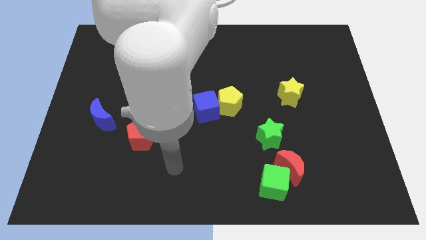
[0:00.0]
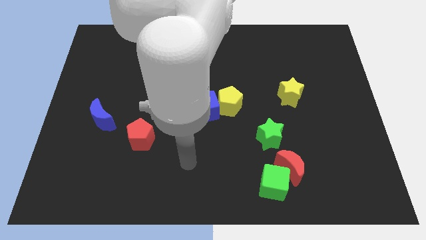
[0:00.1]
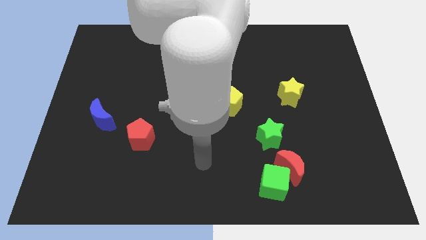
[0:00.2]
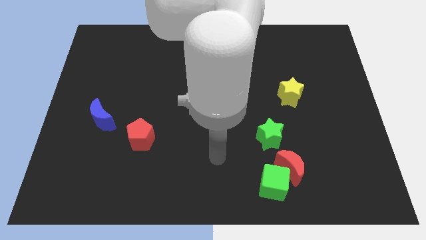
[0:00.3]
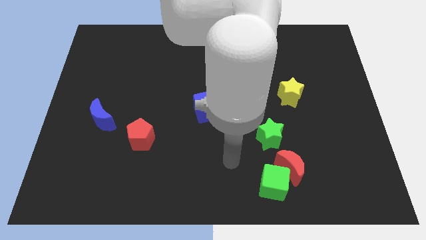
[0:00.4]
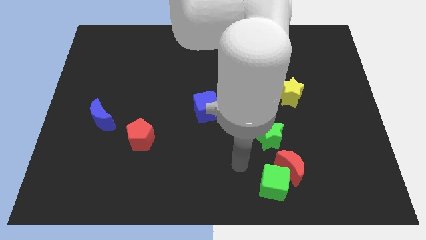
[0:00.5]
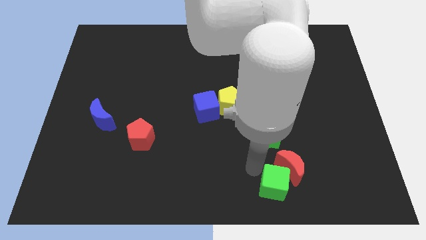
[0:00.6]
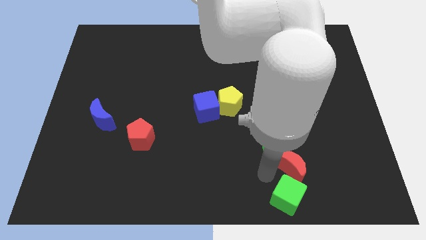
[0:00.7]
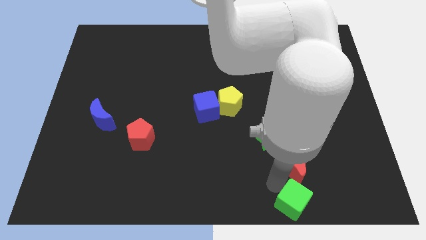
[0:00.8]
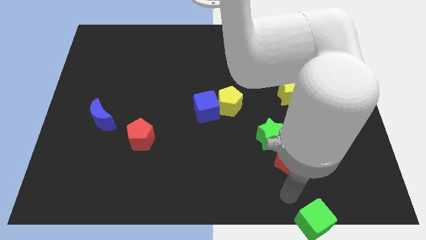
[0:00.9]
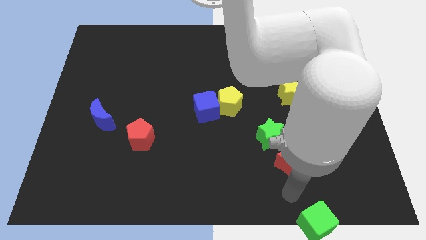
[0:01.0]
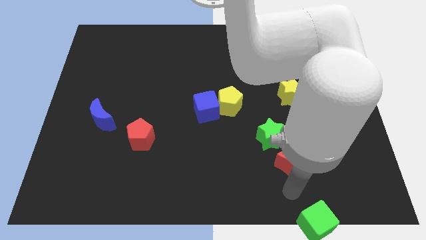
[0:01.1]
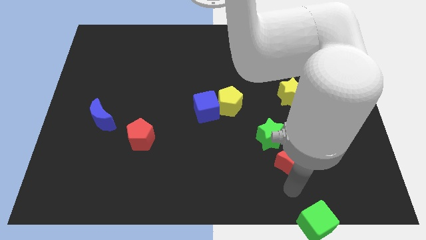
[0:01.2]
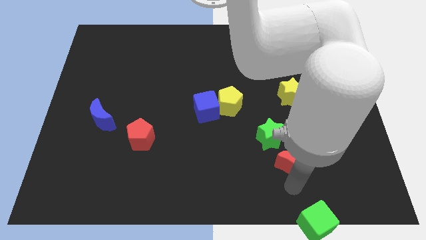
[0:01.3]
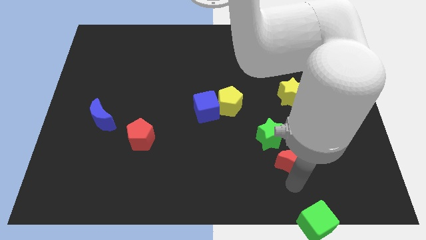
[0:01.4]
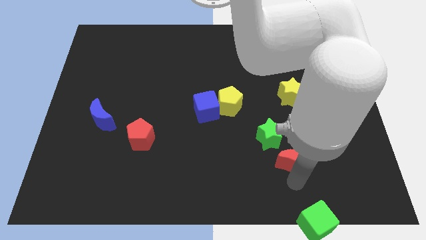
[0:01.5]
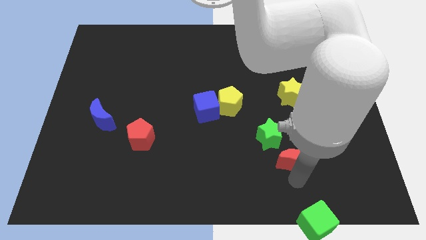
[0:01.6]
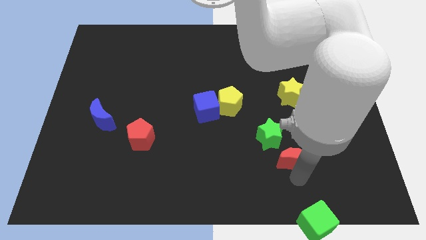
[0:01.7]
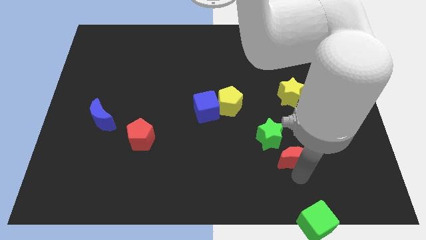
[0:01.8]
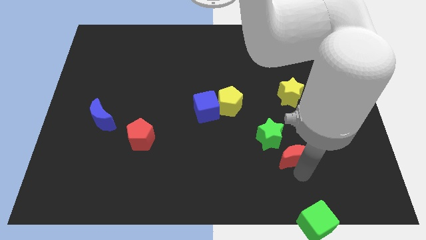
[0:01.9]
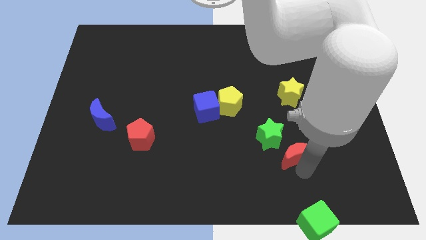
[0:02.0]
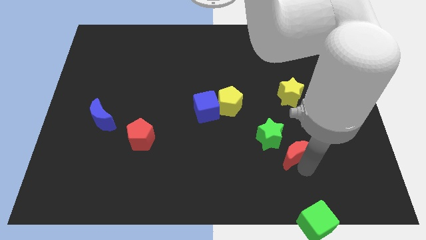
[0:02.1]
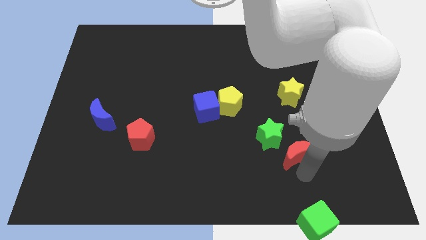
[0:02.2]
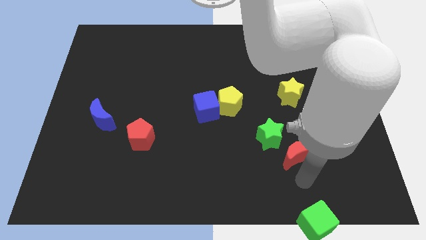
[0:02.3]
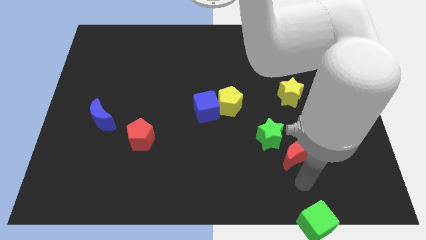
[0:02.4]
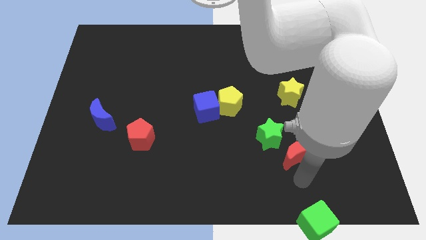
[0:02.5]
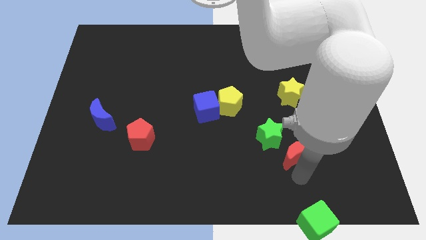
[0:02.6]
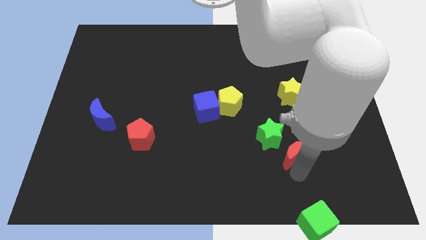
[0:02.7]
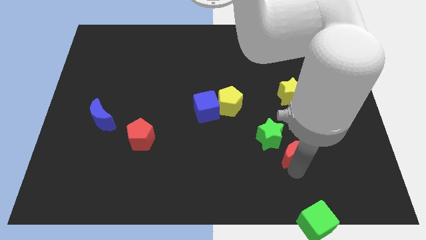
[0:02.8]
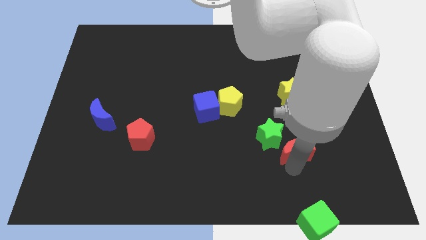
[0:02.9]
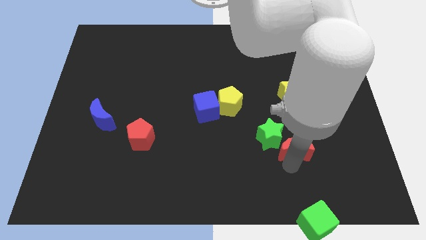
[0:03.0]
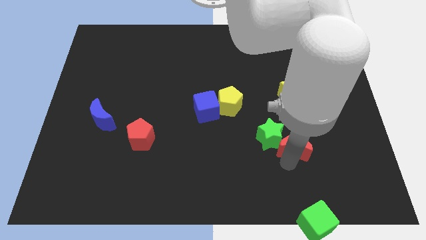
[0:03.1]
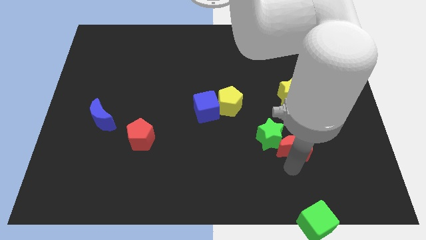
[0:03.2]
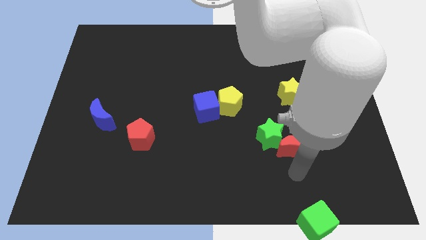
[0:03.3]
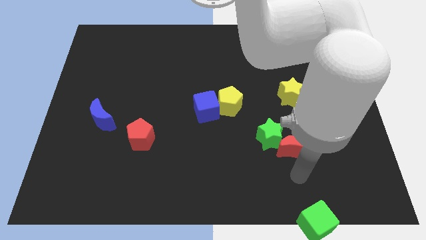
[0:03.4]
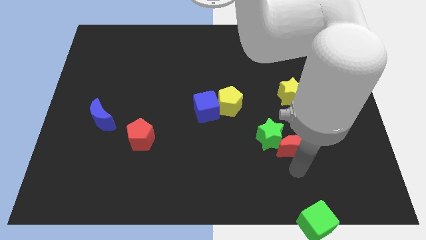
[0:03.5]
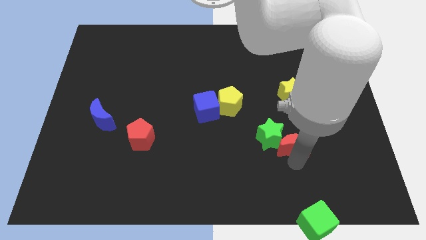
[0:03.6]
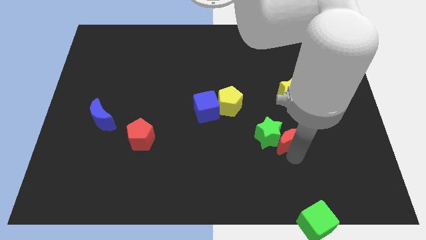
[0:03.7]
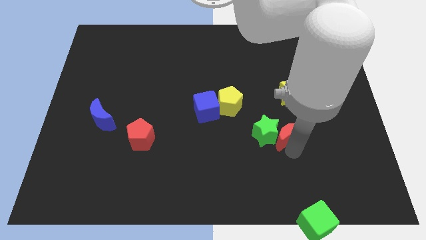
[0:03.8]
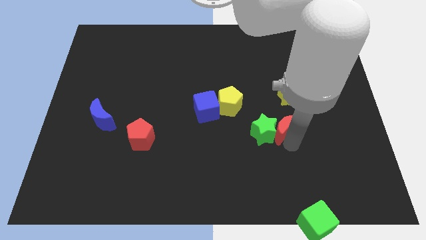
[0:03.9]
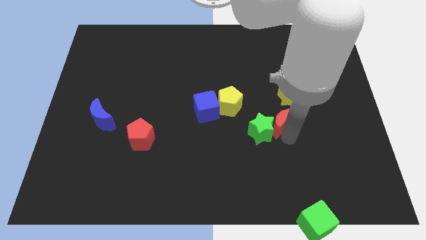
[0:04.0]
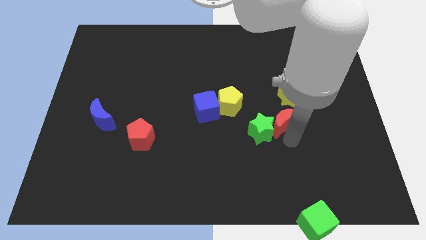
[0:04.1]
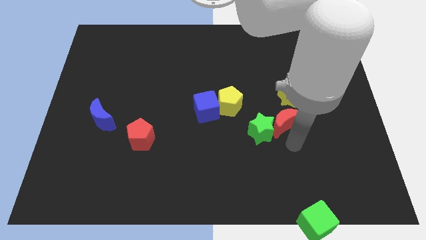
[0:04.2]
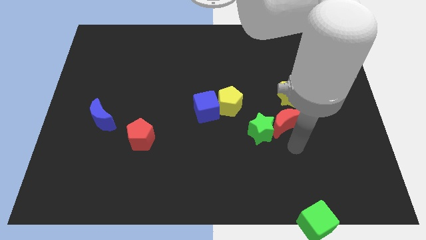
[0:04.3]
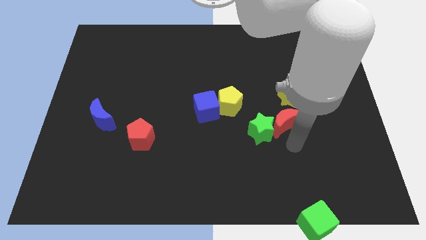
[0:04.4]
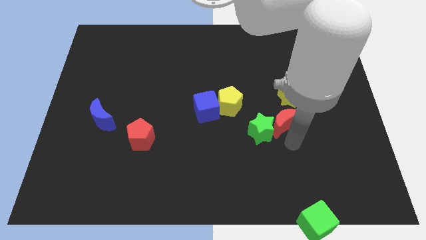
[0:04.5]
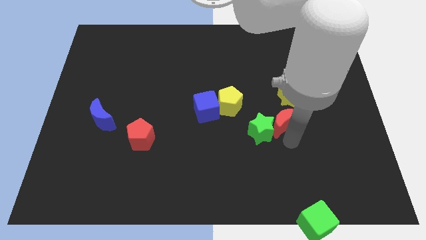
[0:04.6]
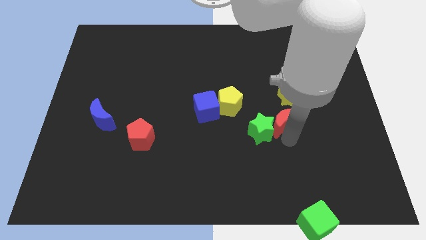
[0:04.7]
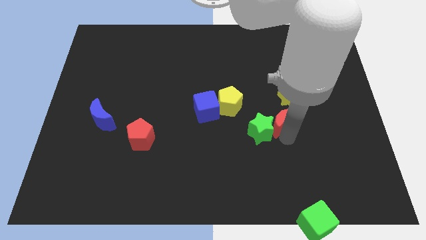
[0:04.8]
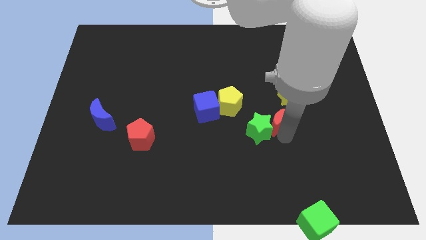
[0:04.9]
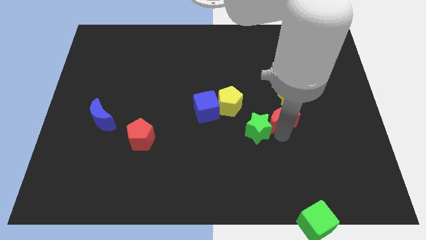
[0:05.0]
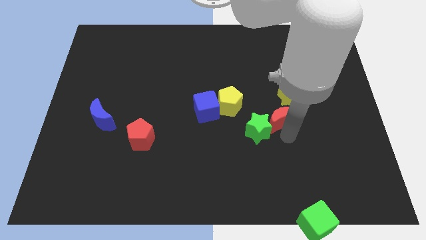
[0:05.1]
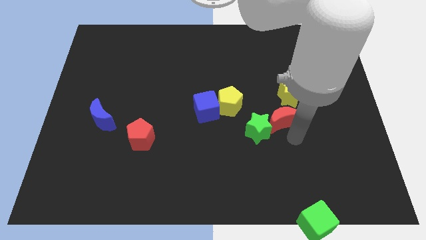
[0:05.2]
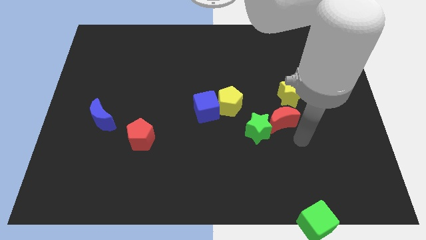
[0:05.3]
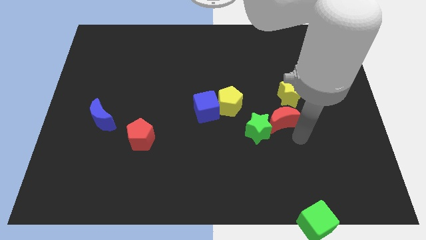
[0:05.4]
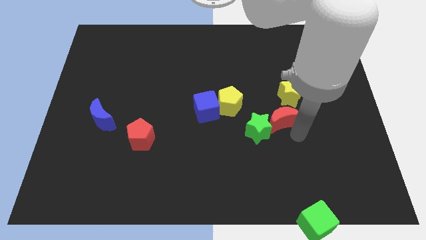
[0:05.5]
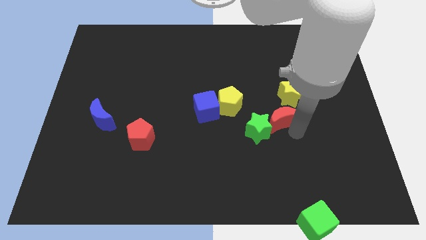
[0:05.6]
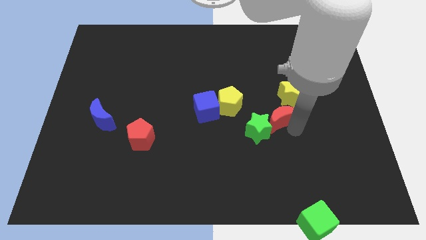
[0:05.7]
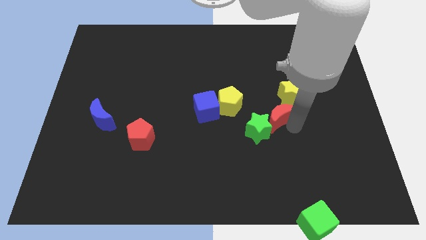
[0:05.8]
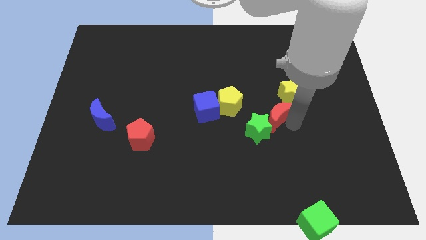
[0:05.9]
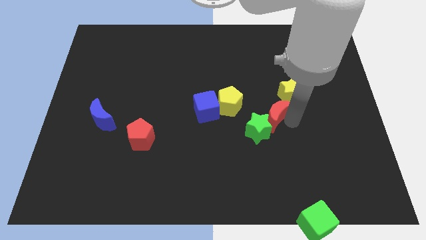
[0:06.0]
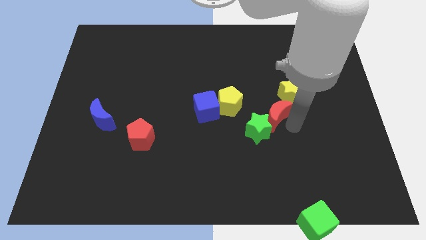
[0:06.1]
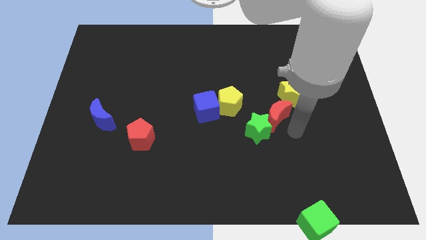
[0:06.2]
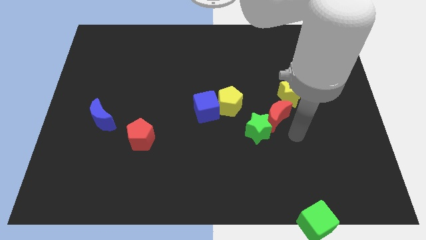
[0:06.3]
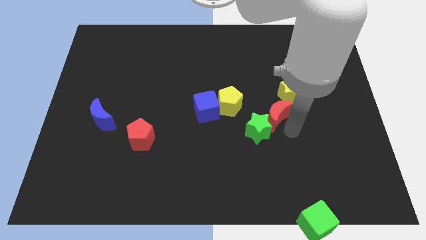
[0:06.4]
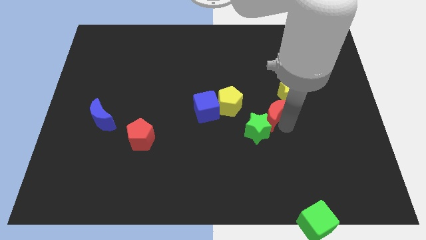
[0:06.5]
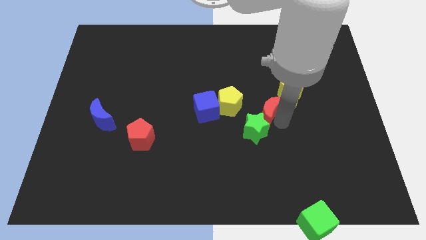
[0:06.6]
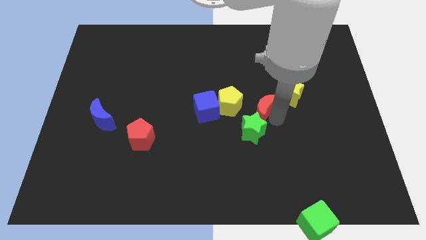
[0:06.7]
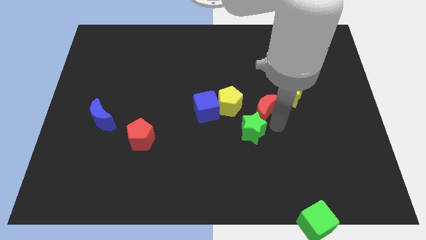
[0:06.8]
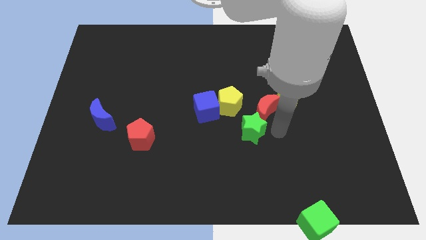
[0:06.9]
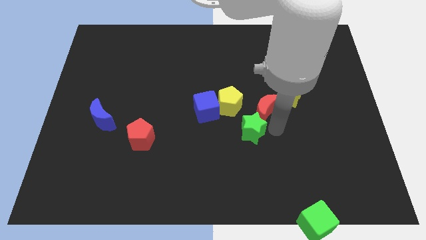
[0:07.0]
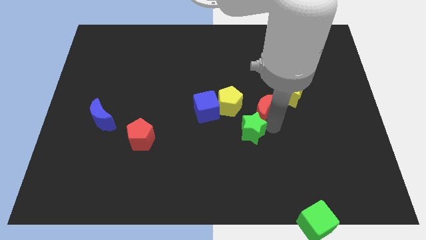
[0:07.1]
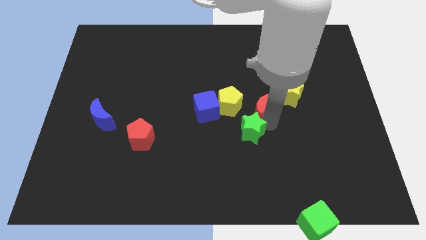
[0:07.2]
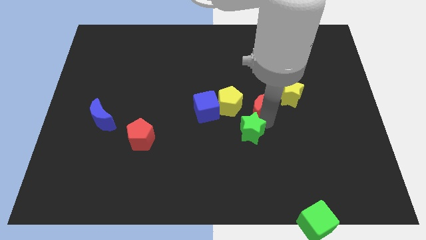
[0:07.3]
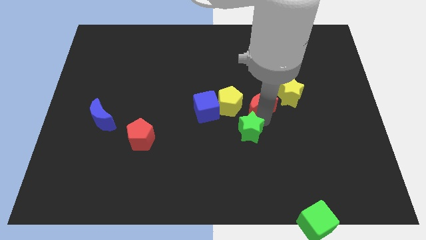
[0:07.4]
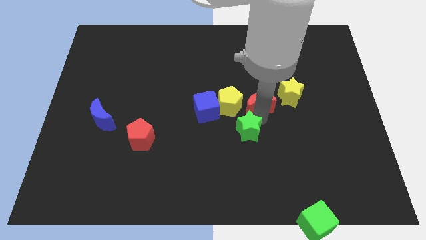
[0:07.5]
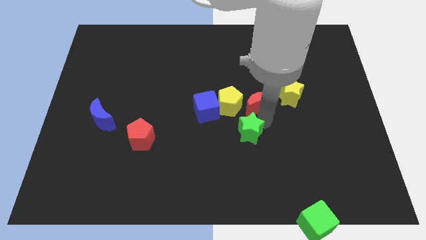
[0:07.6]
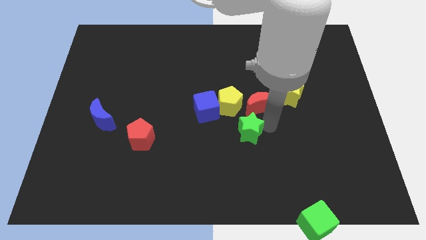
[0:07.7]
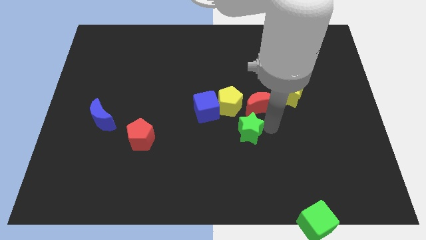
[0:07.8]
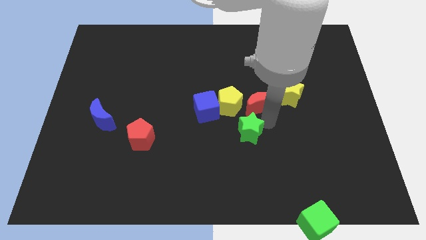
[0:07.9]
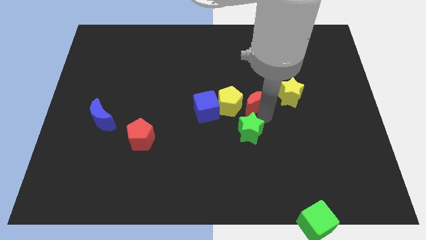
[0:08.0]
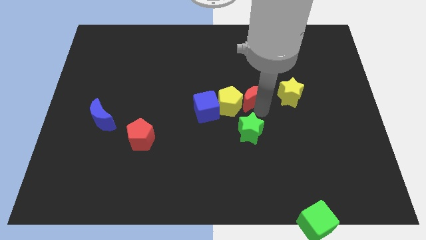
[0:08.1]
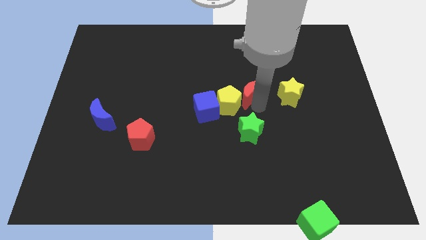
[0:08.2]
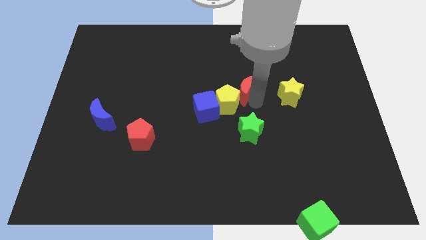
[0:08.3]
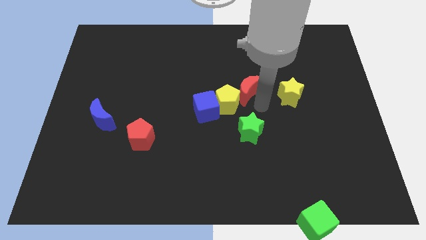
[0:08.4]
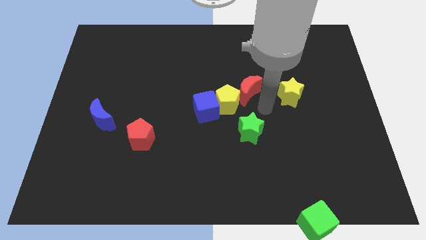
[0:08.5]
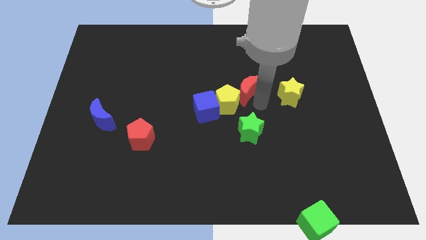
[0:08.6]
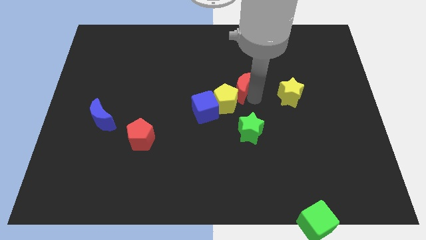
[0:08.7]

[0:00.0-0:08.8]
put the red moon to the top of the yellow pentagon

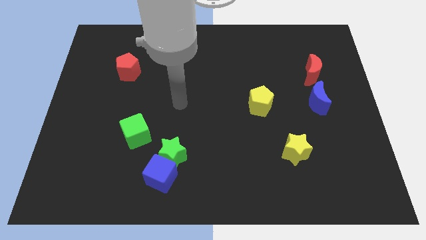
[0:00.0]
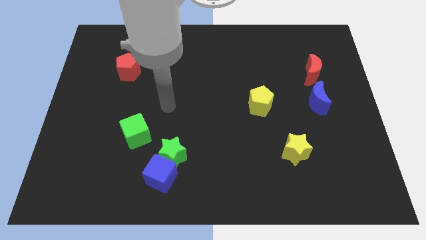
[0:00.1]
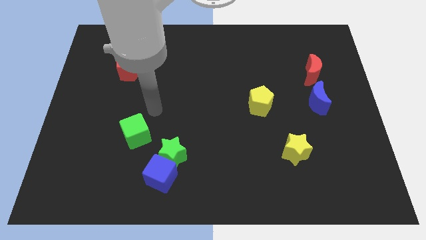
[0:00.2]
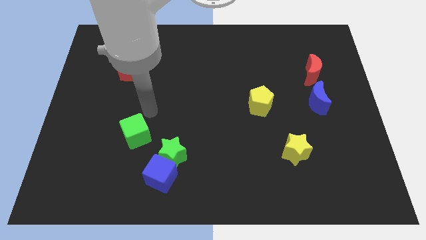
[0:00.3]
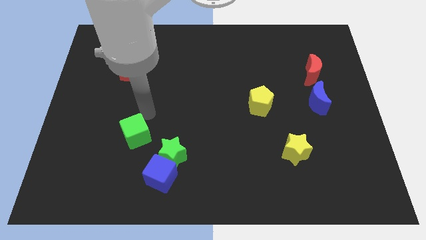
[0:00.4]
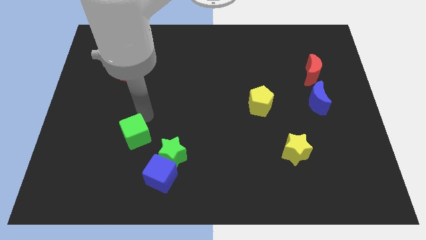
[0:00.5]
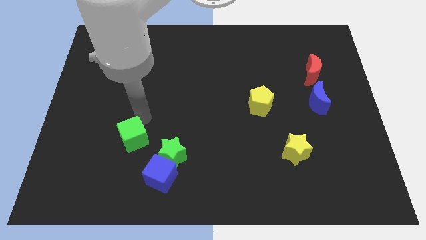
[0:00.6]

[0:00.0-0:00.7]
put the green cube to the left side of the green star
